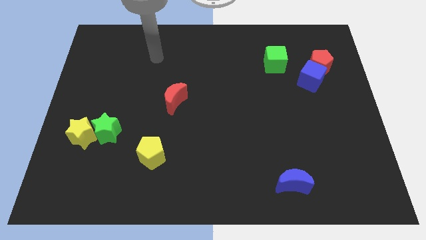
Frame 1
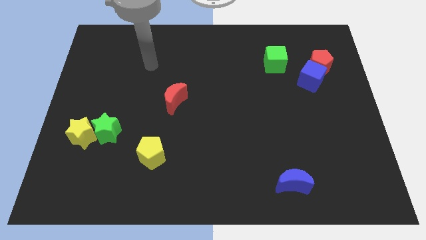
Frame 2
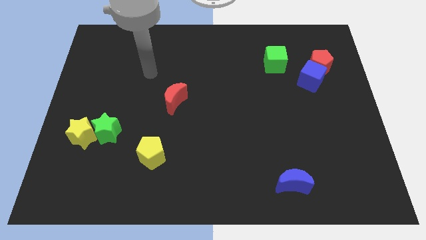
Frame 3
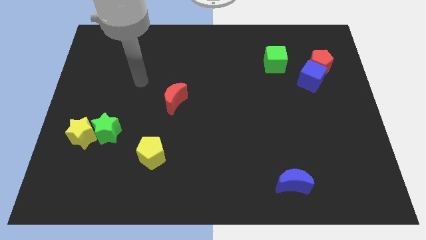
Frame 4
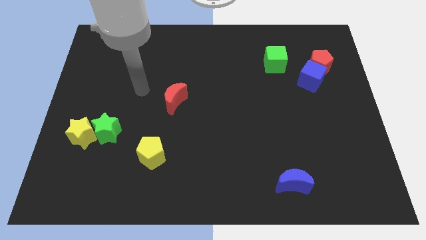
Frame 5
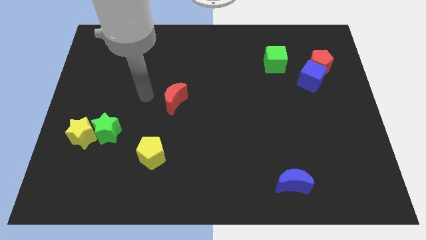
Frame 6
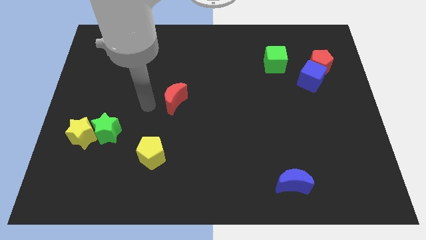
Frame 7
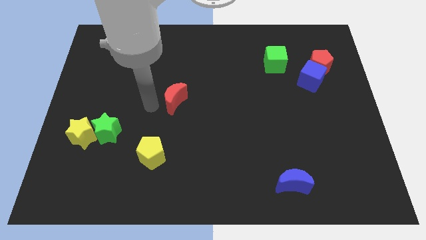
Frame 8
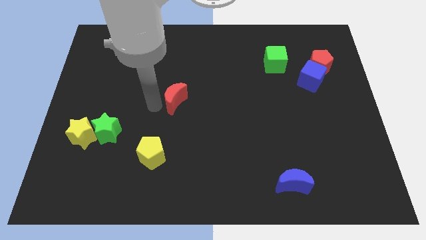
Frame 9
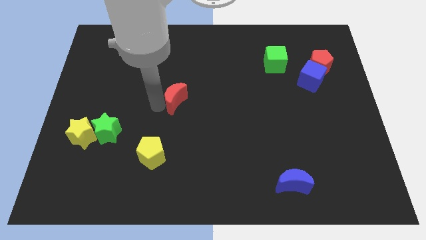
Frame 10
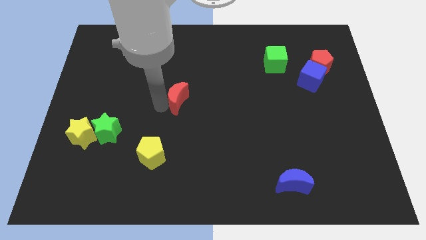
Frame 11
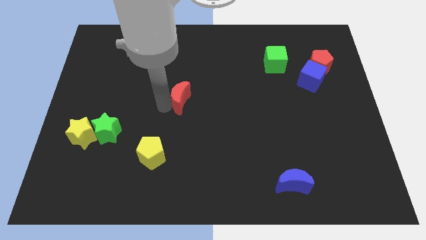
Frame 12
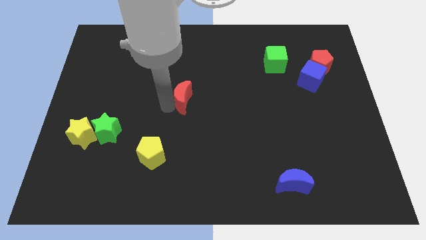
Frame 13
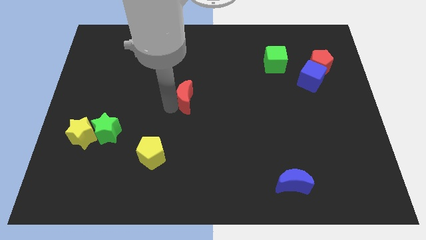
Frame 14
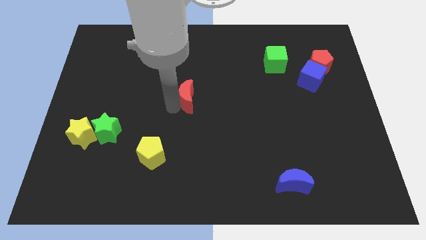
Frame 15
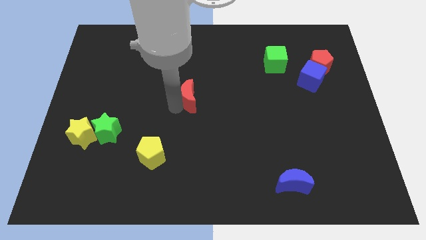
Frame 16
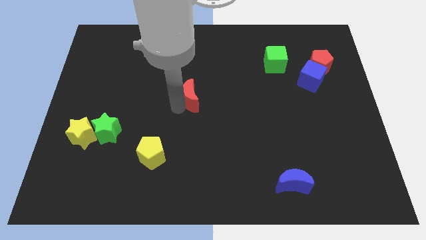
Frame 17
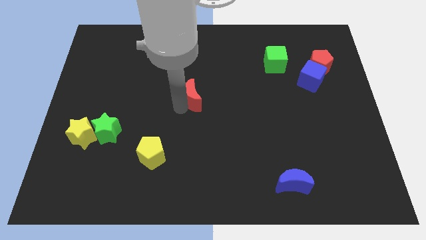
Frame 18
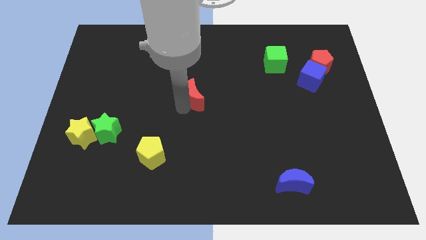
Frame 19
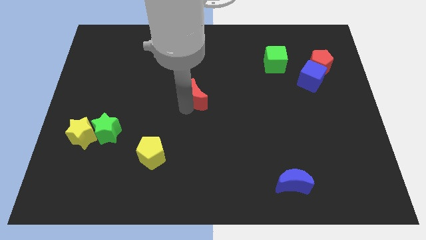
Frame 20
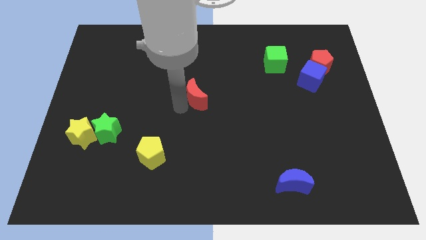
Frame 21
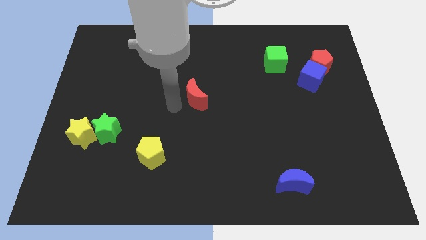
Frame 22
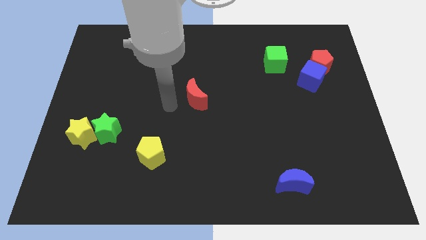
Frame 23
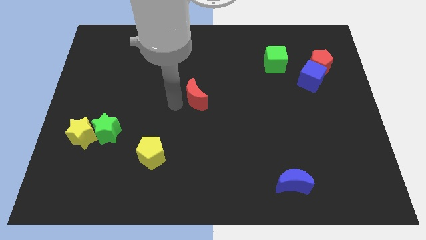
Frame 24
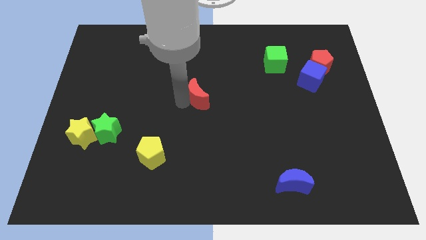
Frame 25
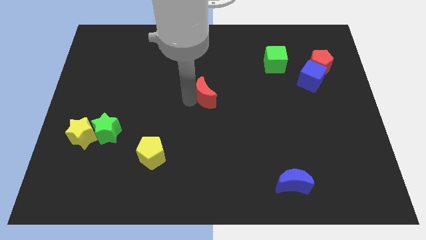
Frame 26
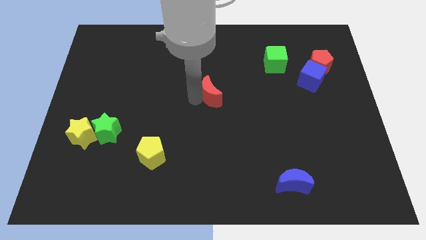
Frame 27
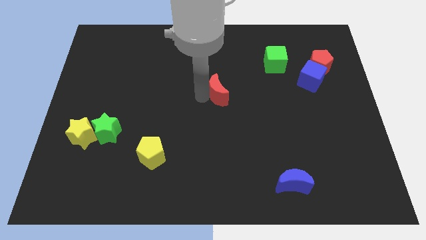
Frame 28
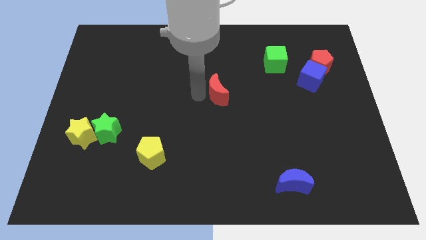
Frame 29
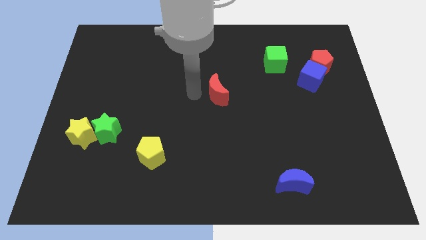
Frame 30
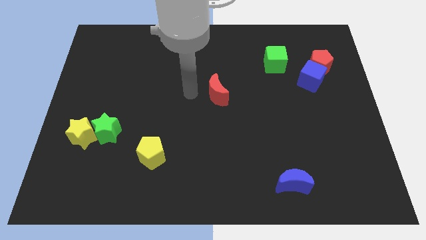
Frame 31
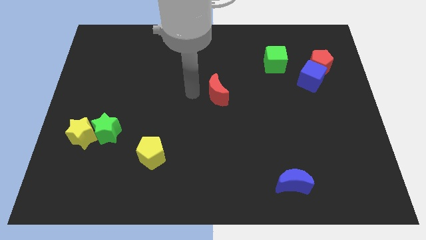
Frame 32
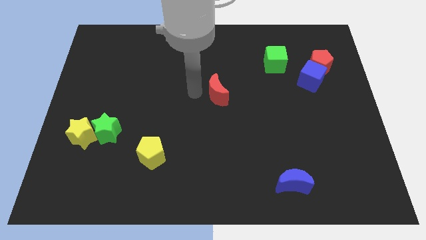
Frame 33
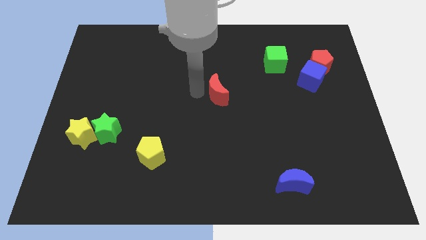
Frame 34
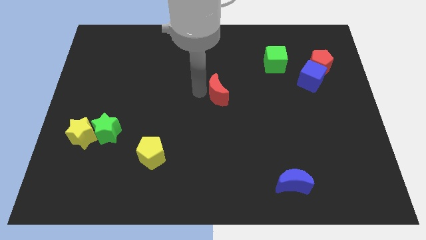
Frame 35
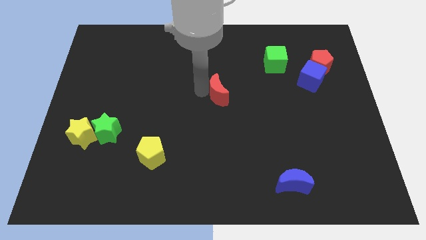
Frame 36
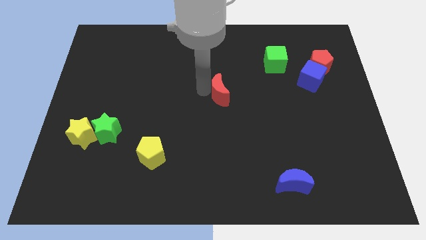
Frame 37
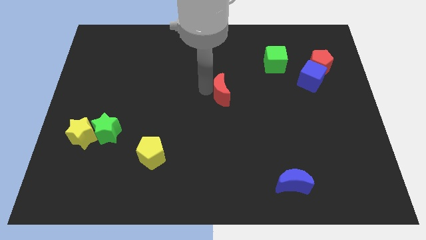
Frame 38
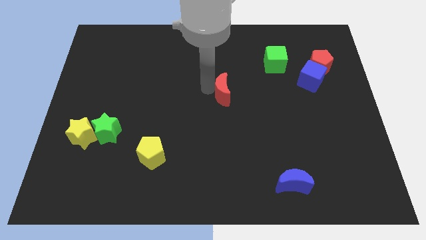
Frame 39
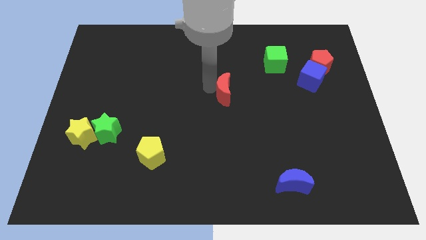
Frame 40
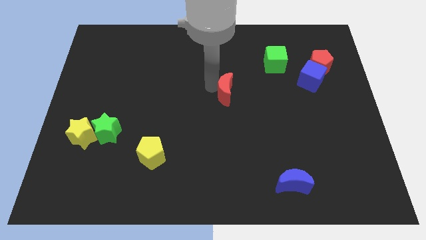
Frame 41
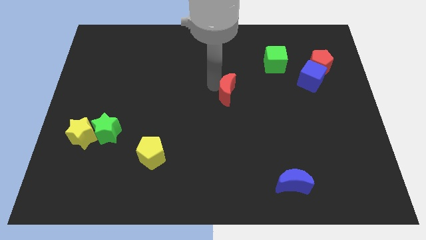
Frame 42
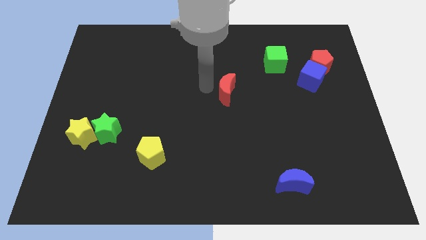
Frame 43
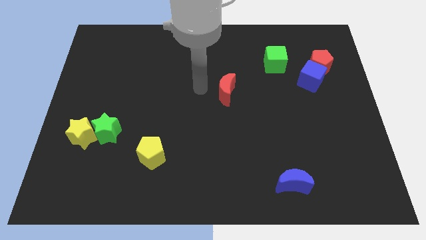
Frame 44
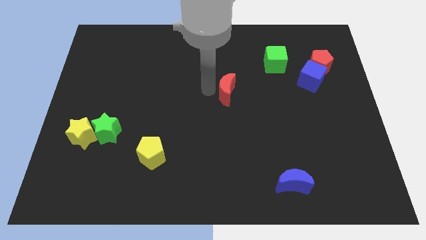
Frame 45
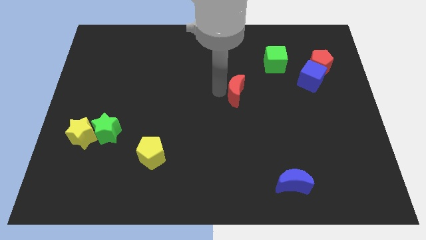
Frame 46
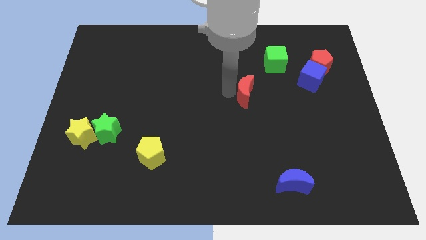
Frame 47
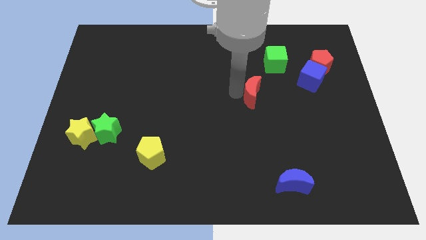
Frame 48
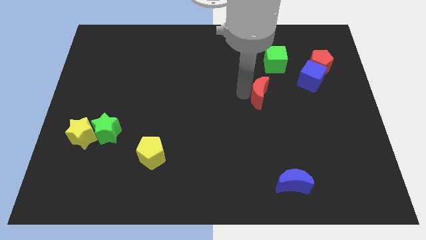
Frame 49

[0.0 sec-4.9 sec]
move the red moon to the right

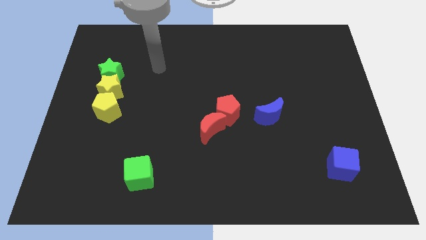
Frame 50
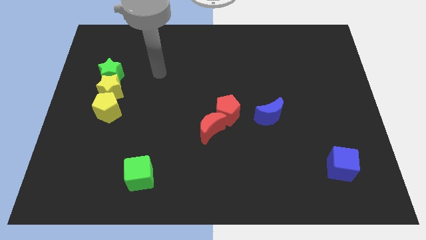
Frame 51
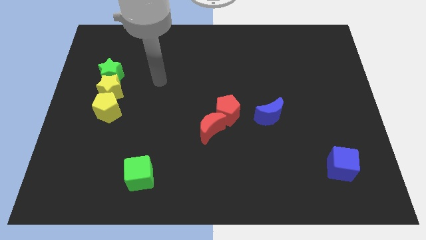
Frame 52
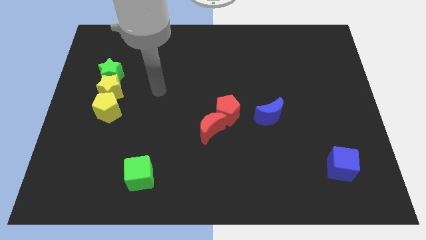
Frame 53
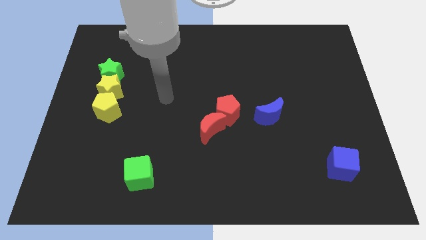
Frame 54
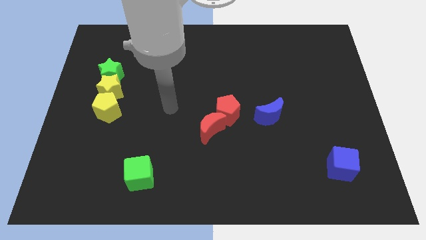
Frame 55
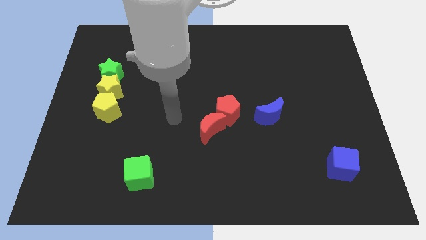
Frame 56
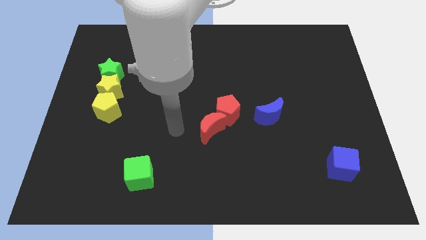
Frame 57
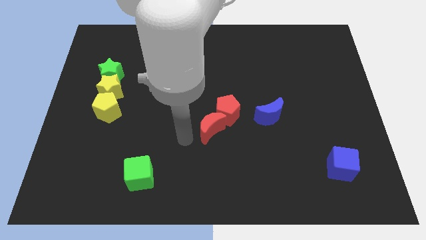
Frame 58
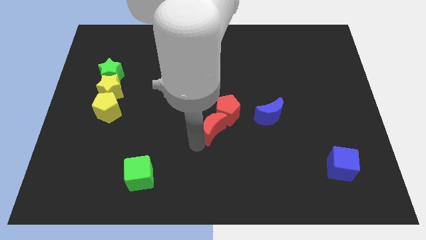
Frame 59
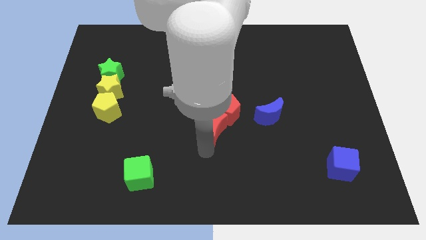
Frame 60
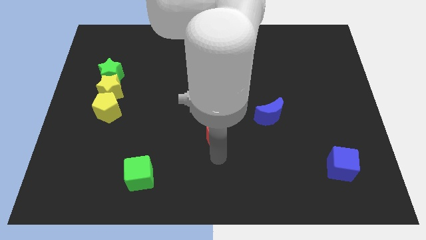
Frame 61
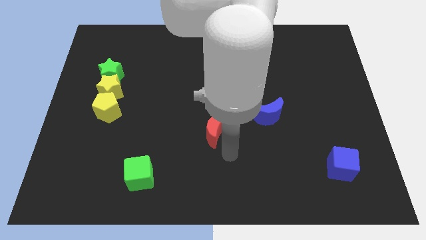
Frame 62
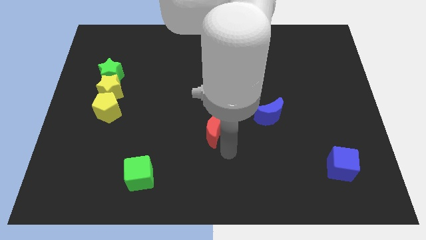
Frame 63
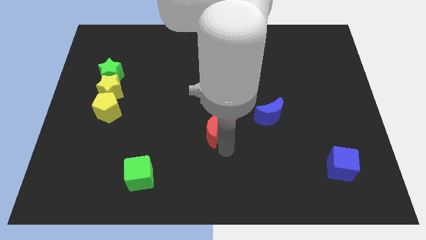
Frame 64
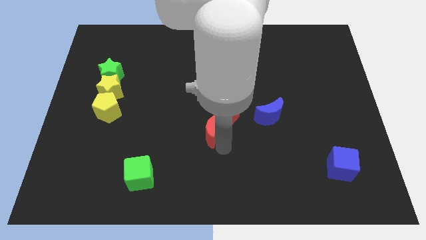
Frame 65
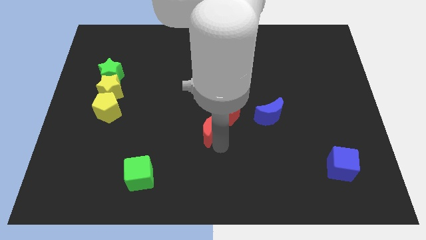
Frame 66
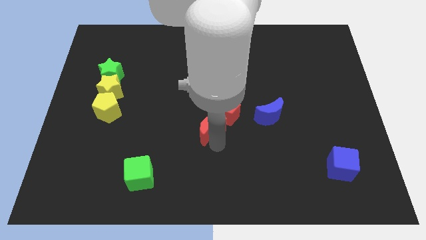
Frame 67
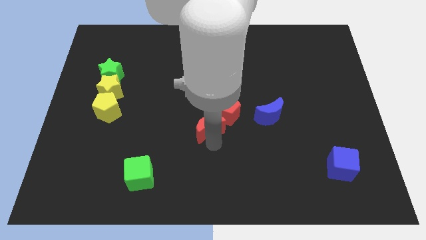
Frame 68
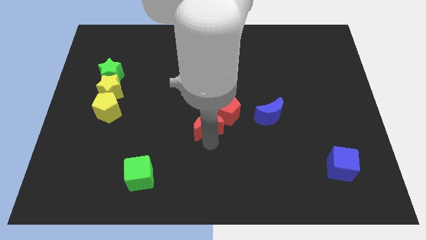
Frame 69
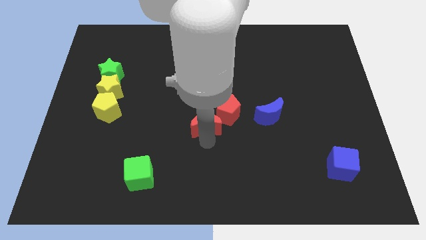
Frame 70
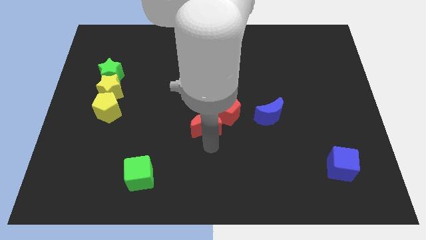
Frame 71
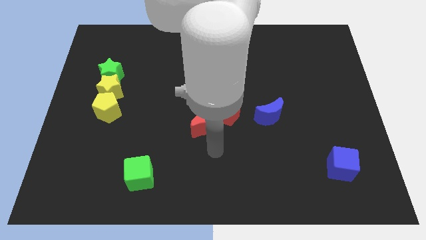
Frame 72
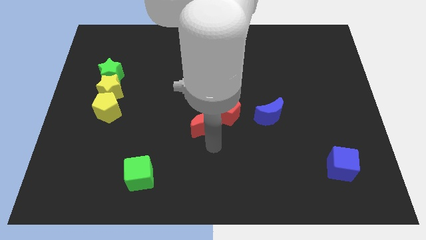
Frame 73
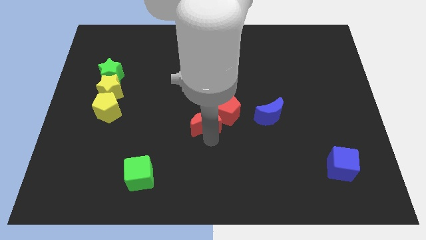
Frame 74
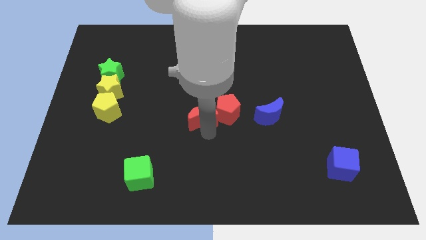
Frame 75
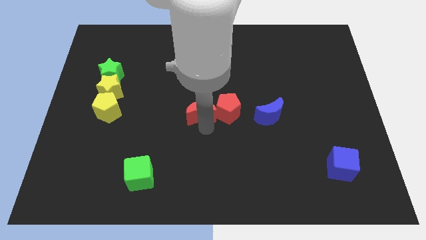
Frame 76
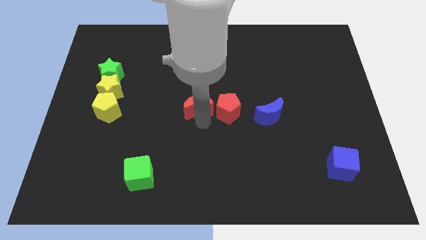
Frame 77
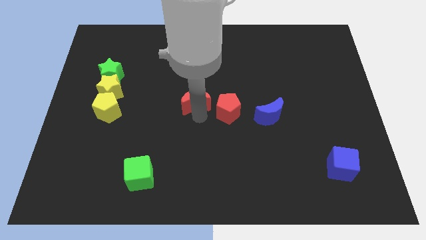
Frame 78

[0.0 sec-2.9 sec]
slide the red moon a bit upwards

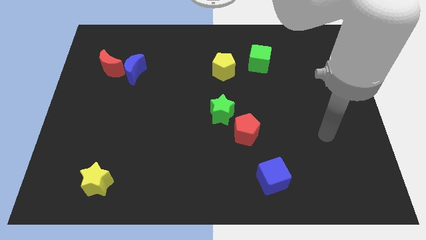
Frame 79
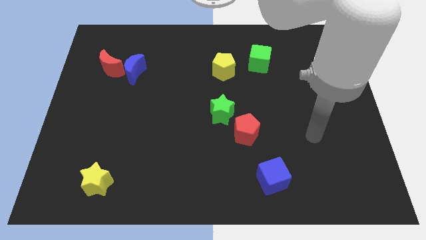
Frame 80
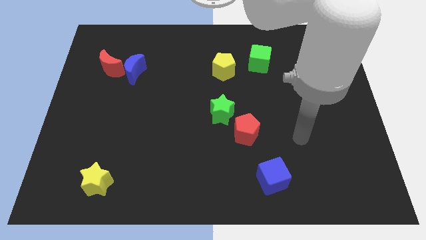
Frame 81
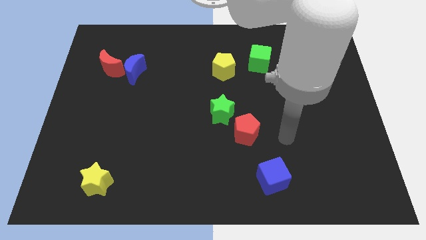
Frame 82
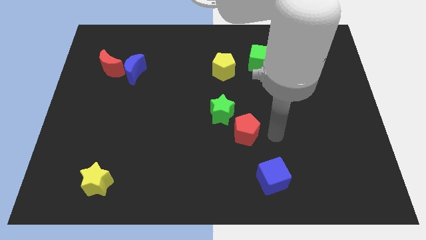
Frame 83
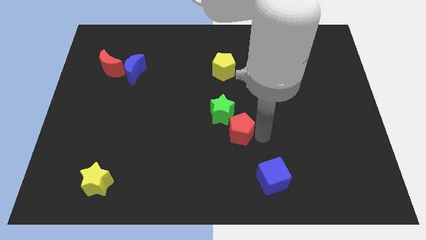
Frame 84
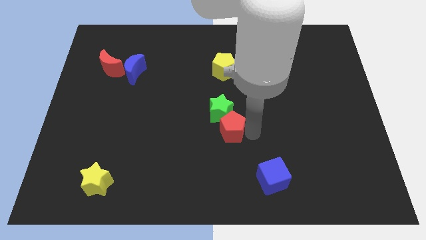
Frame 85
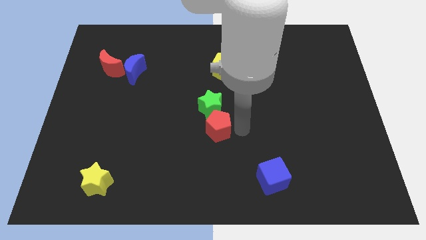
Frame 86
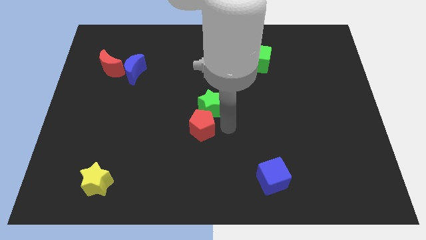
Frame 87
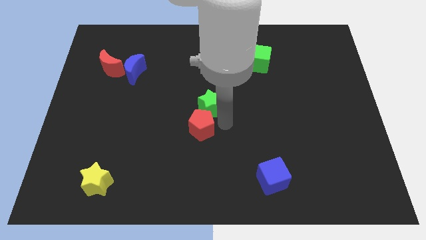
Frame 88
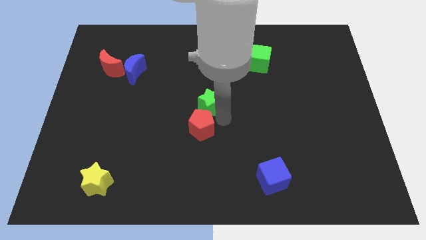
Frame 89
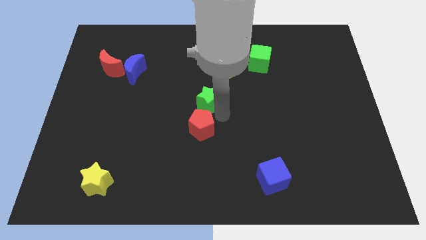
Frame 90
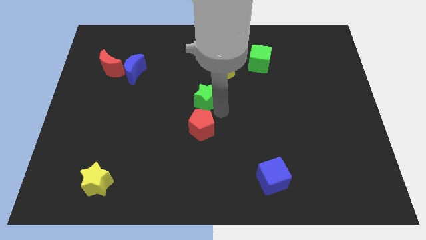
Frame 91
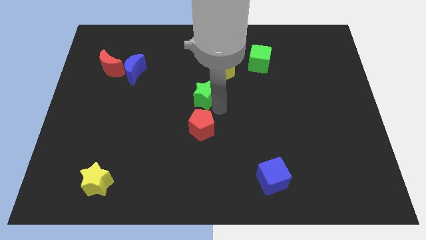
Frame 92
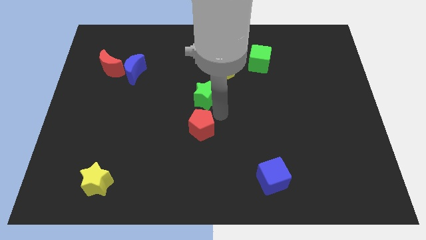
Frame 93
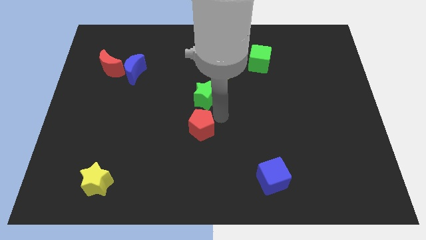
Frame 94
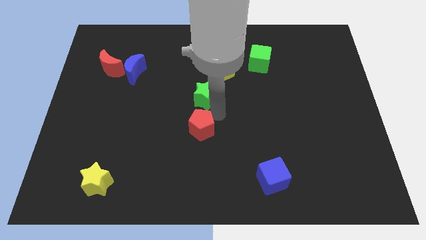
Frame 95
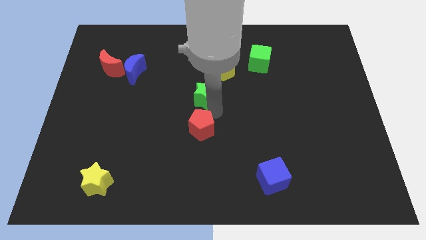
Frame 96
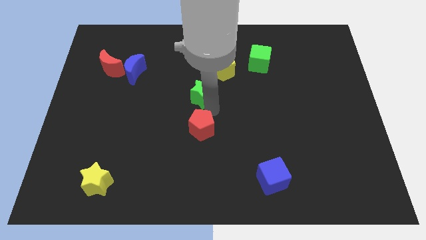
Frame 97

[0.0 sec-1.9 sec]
move the green star a little bit diagonally up and left
